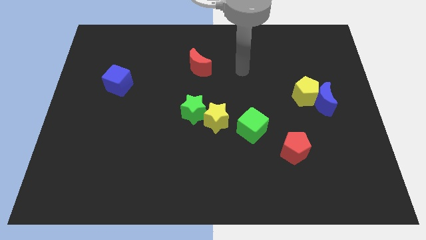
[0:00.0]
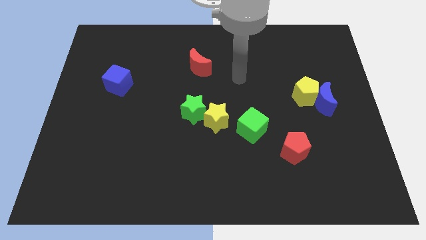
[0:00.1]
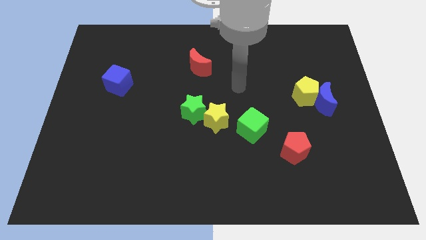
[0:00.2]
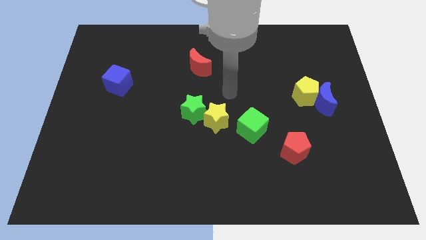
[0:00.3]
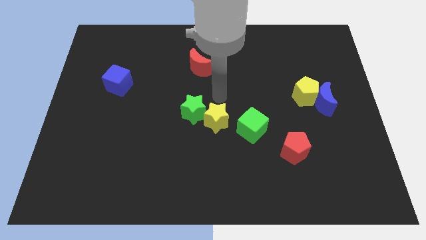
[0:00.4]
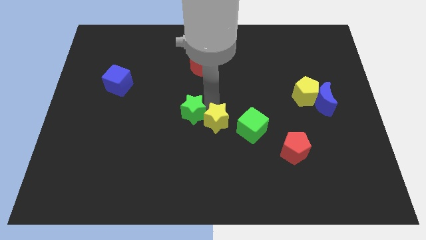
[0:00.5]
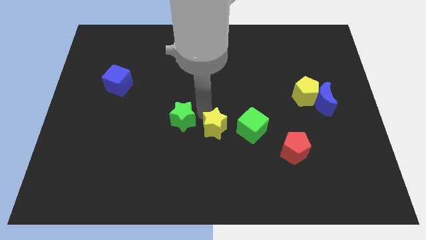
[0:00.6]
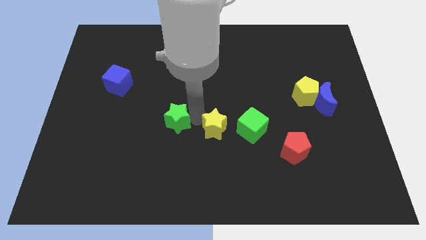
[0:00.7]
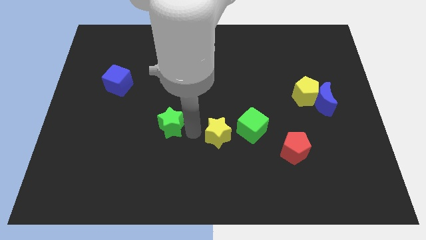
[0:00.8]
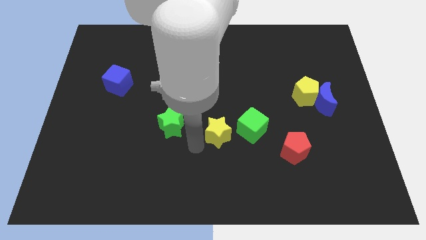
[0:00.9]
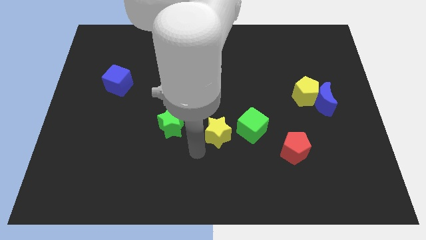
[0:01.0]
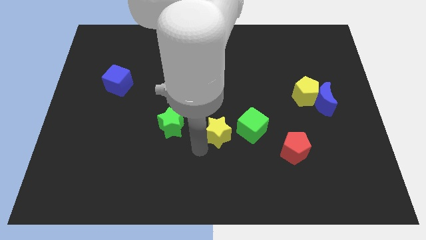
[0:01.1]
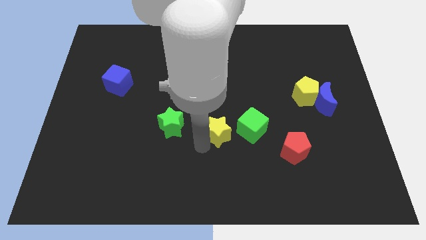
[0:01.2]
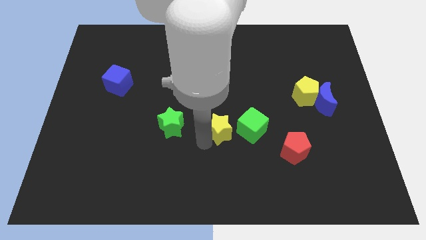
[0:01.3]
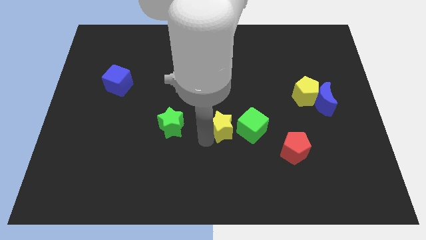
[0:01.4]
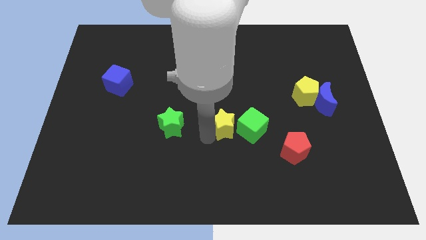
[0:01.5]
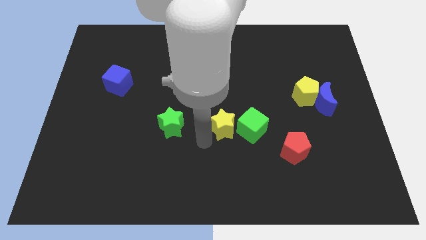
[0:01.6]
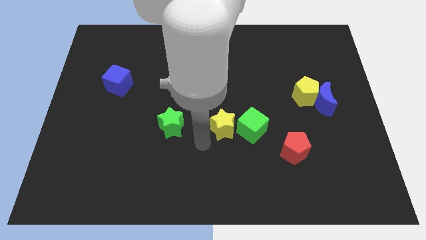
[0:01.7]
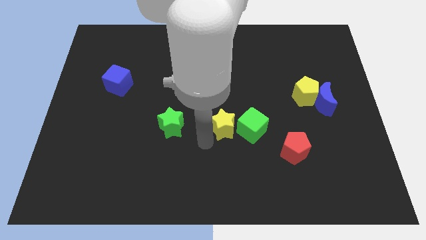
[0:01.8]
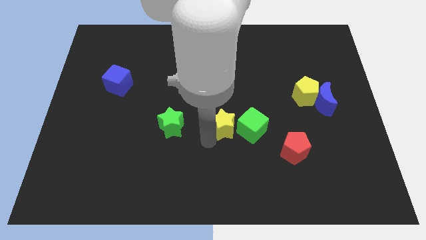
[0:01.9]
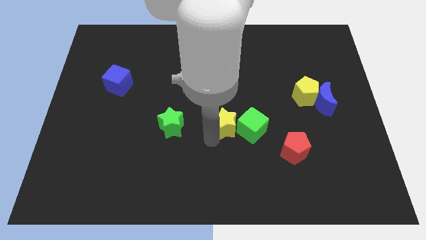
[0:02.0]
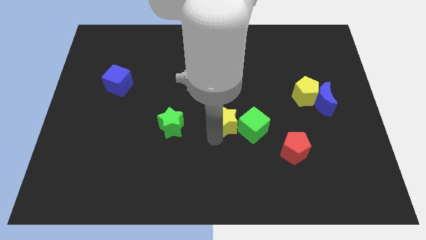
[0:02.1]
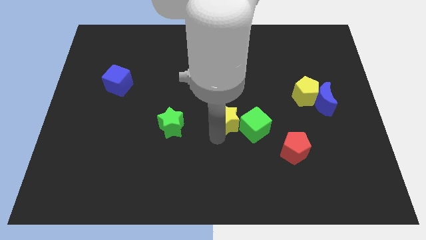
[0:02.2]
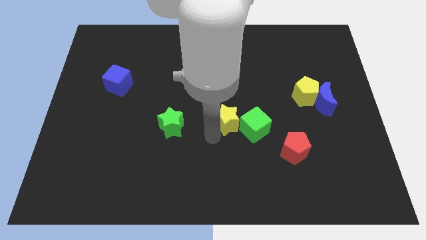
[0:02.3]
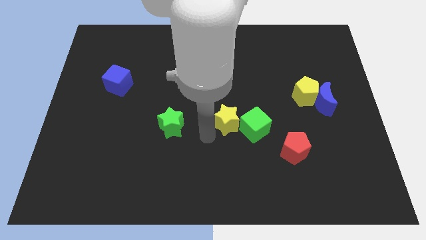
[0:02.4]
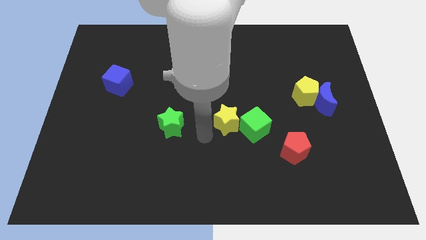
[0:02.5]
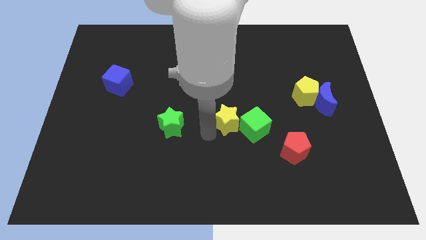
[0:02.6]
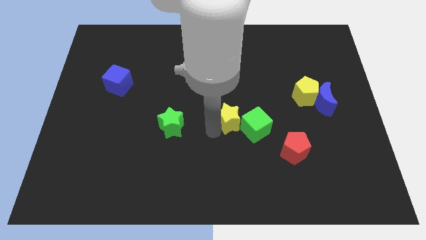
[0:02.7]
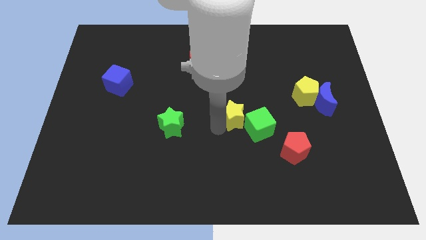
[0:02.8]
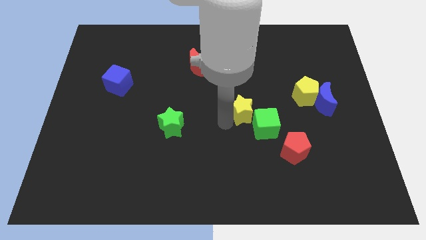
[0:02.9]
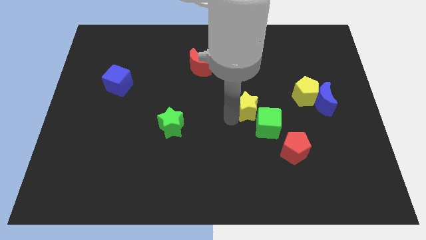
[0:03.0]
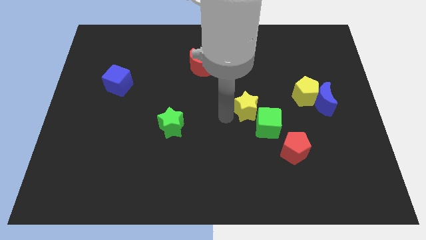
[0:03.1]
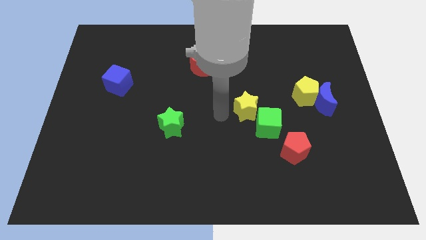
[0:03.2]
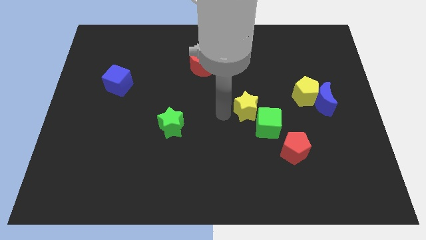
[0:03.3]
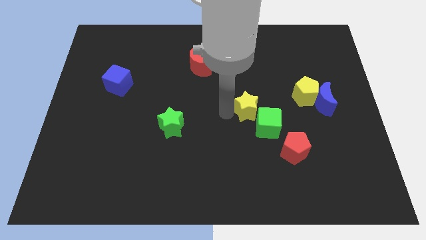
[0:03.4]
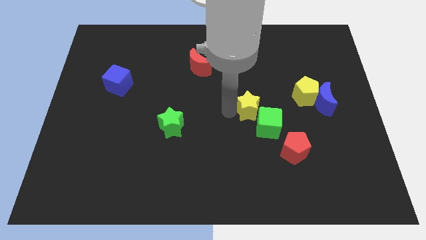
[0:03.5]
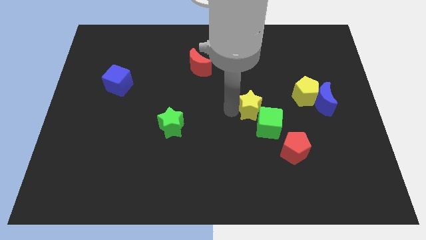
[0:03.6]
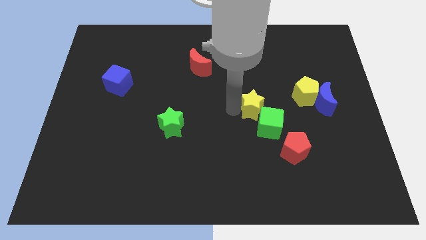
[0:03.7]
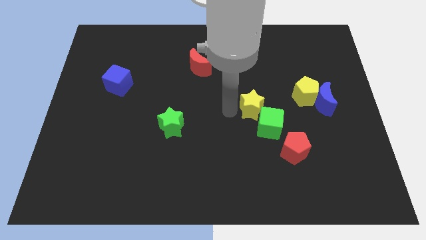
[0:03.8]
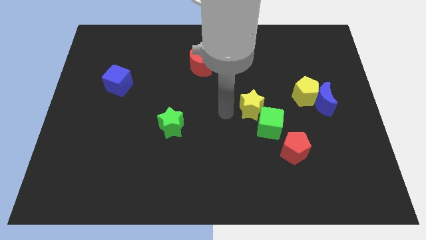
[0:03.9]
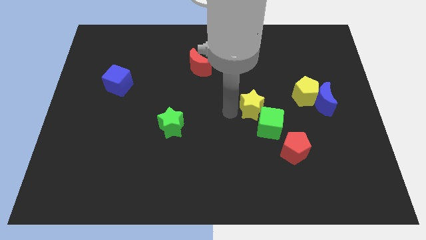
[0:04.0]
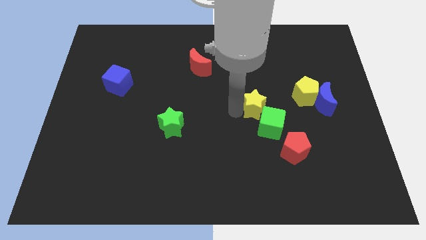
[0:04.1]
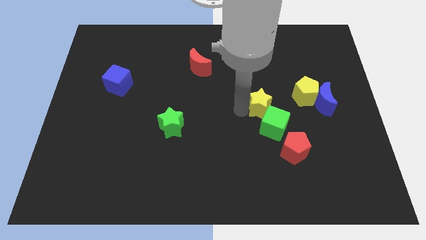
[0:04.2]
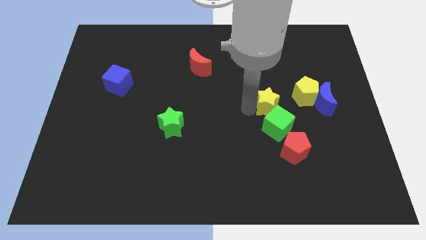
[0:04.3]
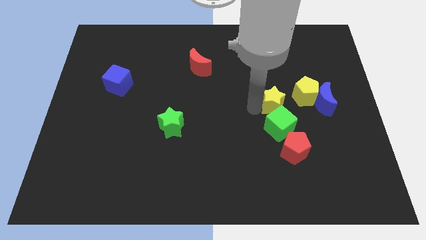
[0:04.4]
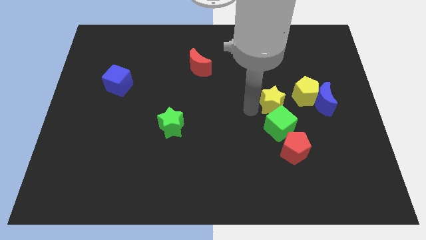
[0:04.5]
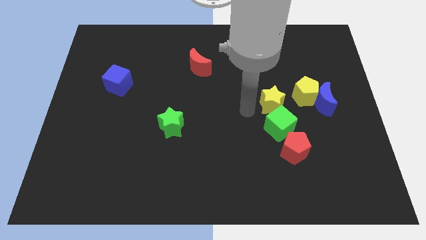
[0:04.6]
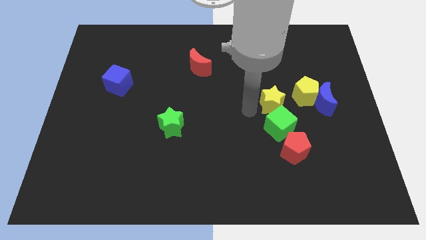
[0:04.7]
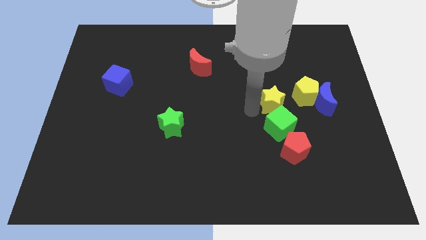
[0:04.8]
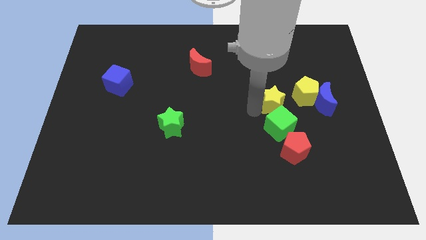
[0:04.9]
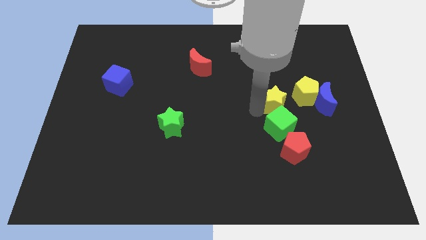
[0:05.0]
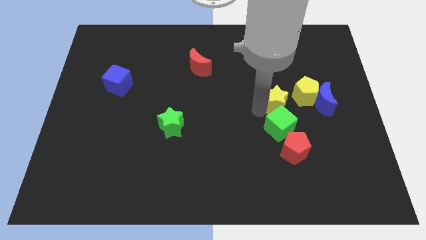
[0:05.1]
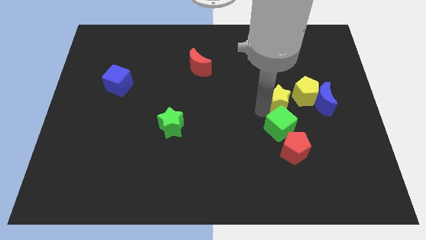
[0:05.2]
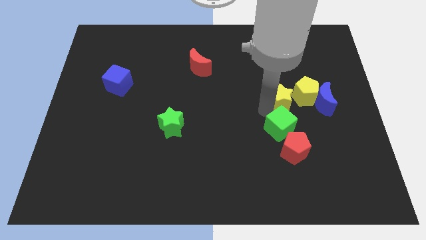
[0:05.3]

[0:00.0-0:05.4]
put the yellow star towards the yellow pentagon

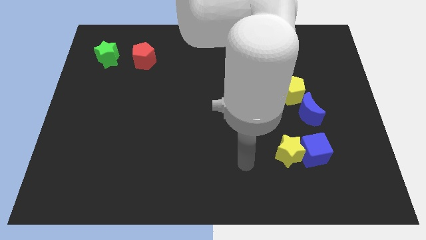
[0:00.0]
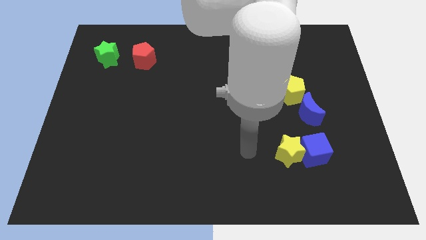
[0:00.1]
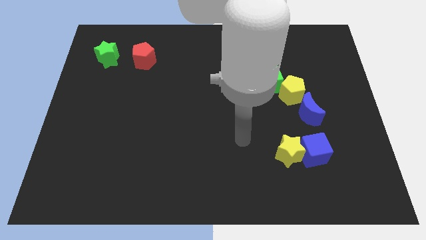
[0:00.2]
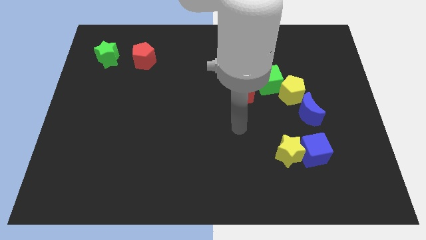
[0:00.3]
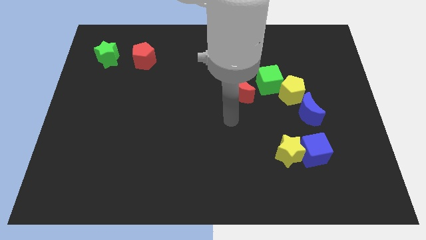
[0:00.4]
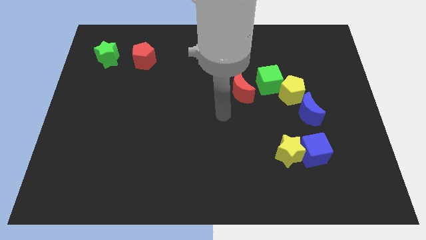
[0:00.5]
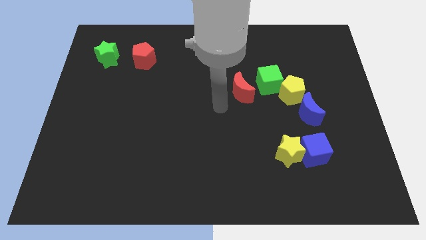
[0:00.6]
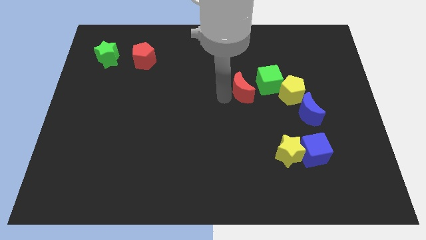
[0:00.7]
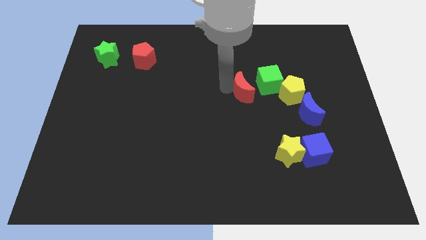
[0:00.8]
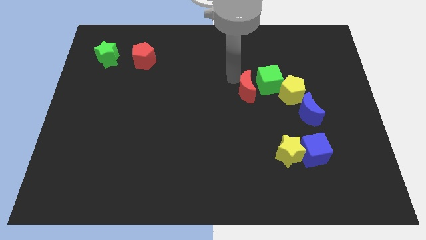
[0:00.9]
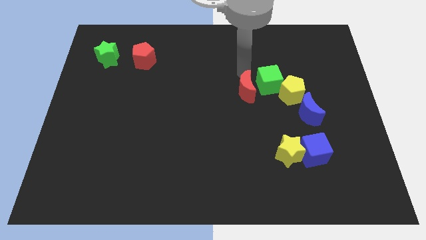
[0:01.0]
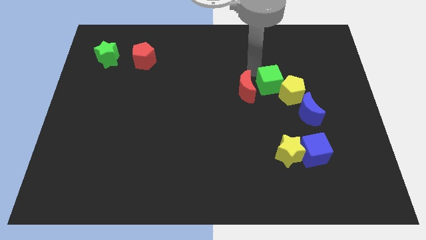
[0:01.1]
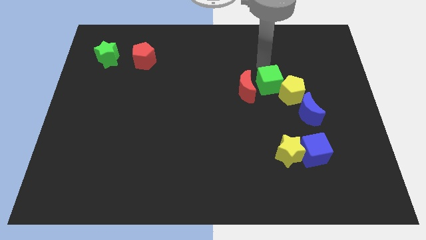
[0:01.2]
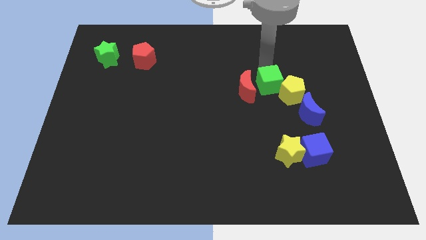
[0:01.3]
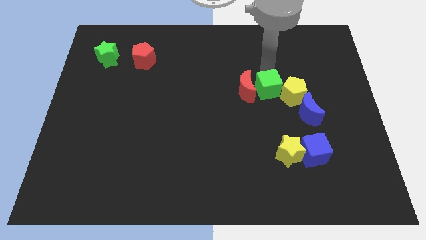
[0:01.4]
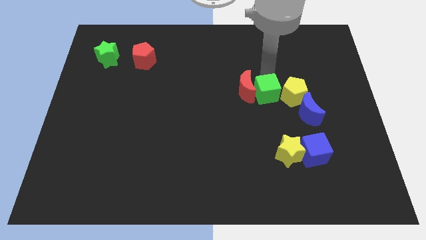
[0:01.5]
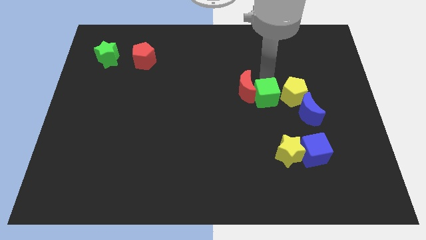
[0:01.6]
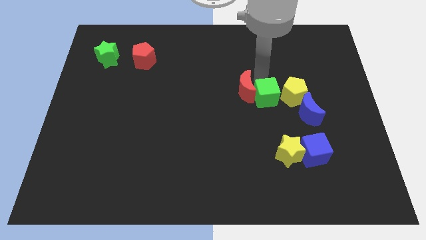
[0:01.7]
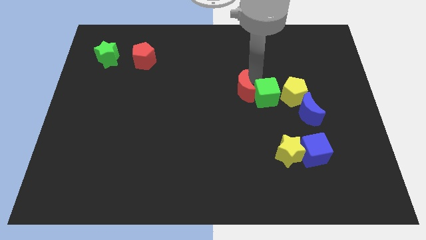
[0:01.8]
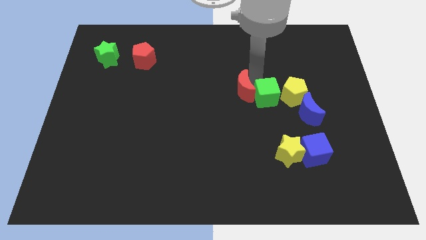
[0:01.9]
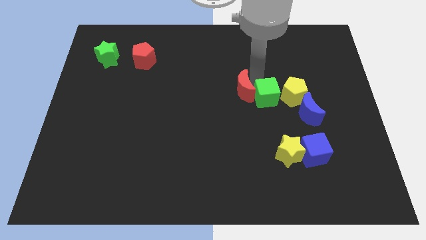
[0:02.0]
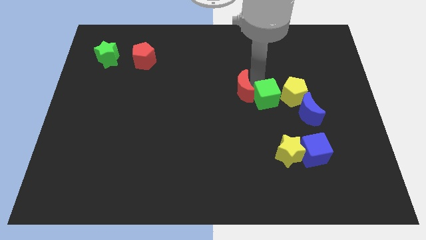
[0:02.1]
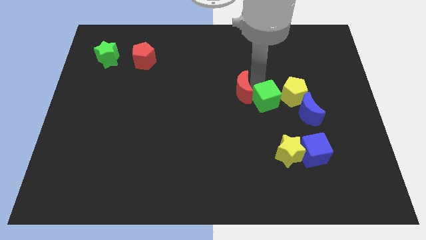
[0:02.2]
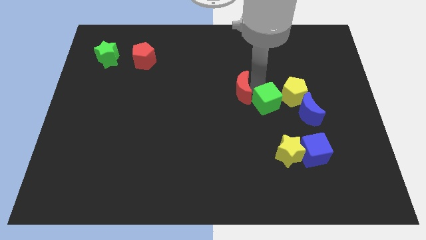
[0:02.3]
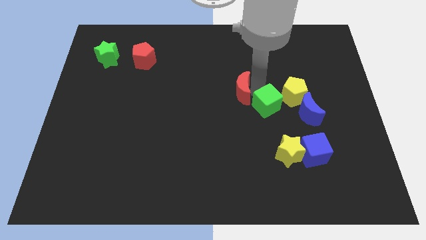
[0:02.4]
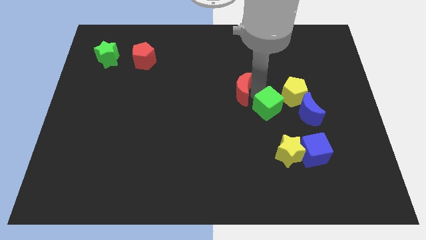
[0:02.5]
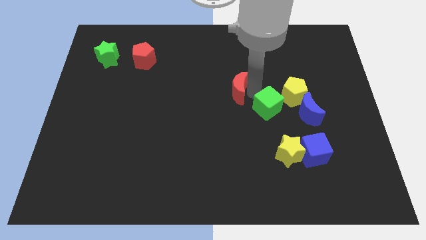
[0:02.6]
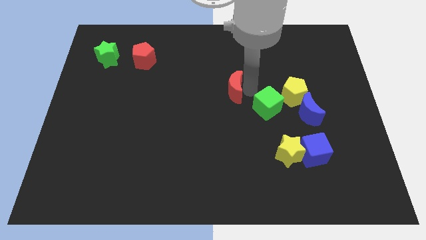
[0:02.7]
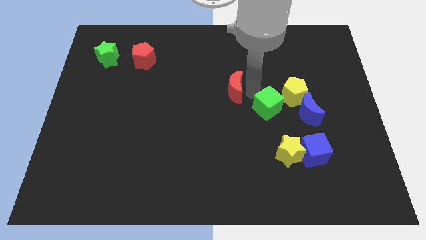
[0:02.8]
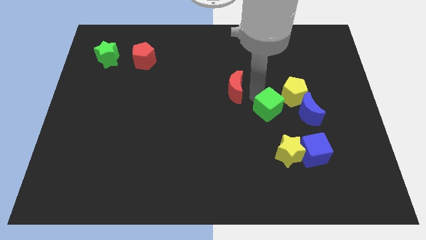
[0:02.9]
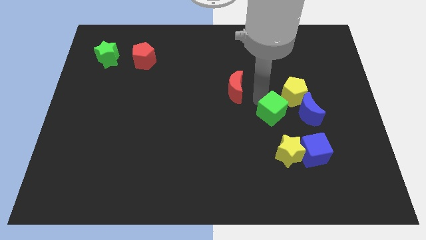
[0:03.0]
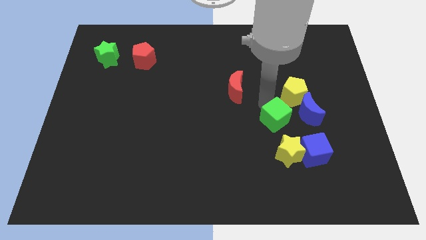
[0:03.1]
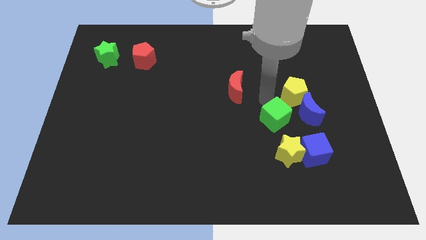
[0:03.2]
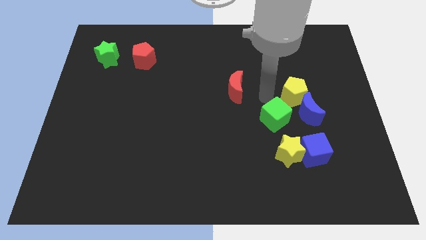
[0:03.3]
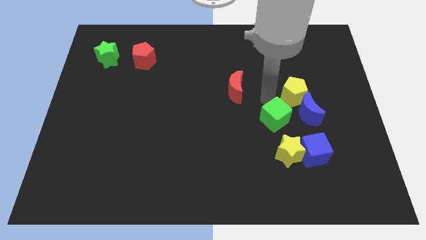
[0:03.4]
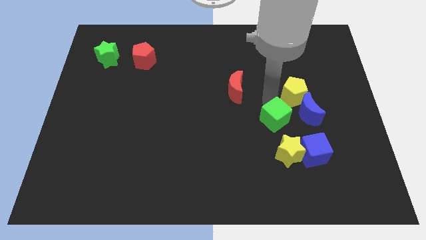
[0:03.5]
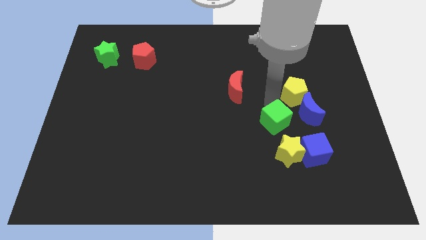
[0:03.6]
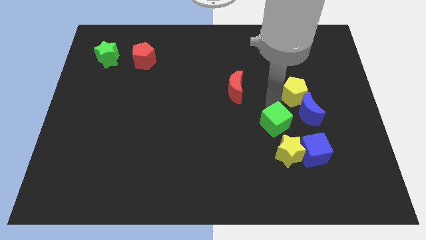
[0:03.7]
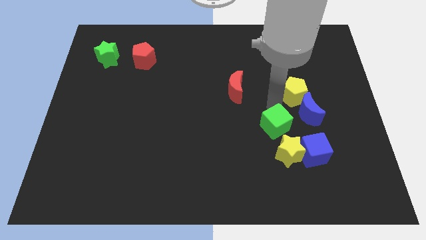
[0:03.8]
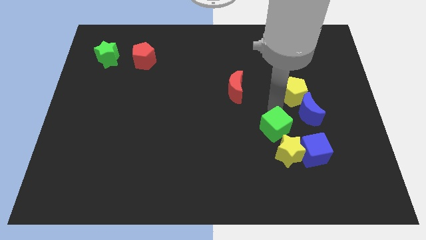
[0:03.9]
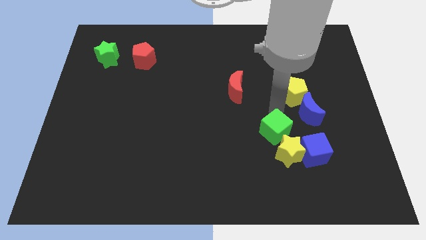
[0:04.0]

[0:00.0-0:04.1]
slide the green cube towards the yellow star
